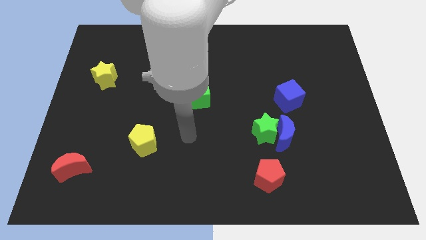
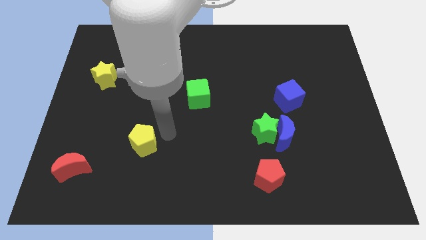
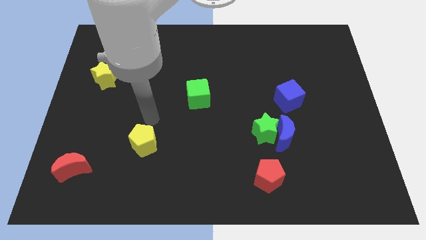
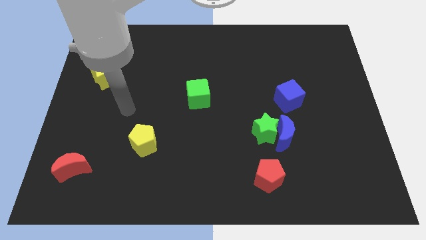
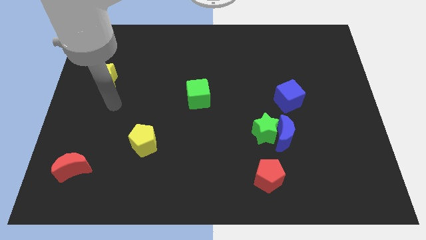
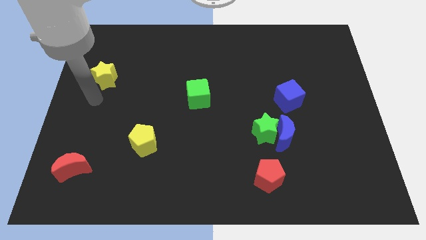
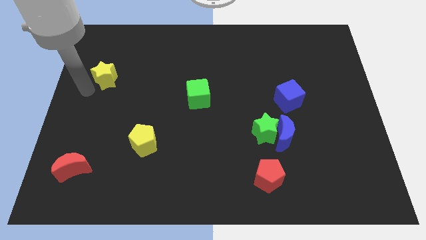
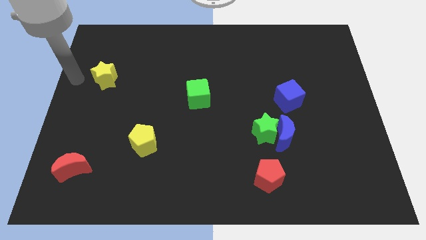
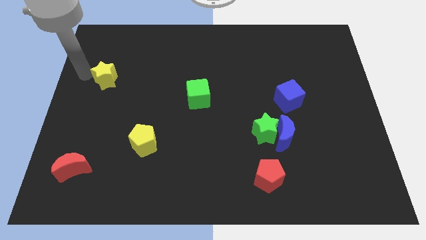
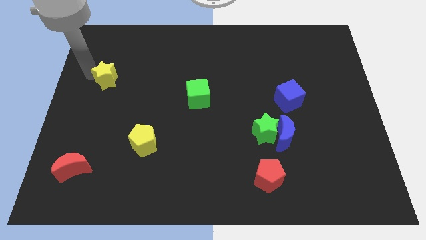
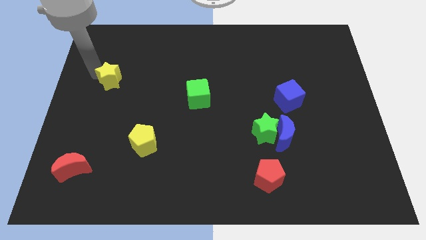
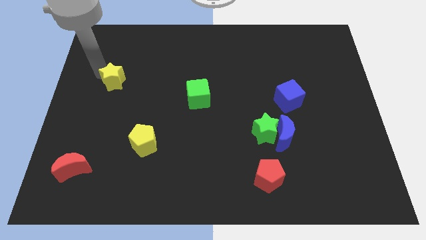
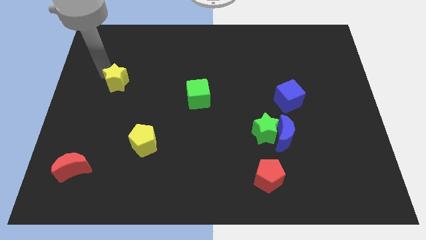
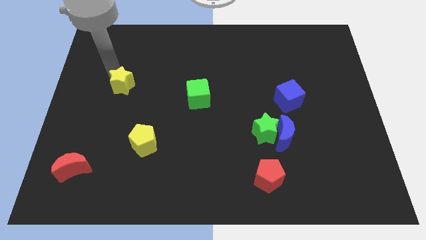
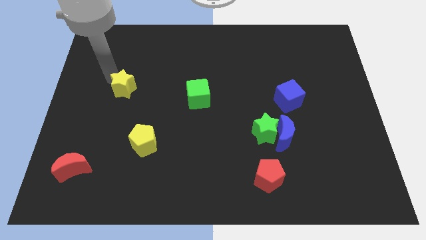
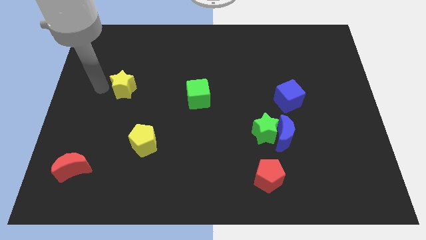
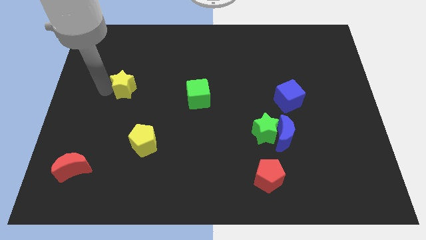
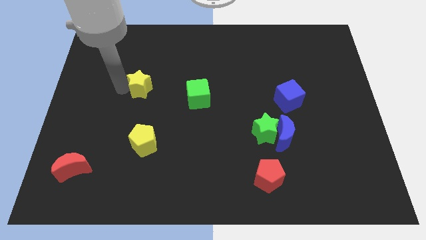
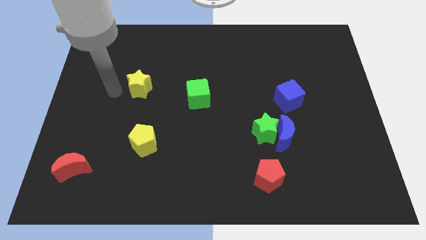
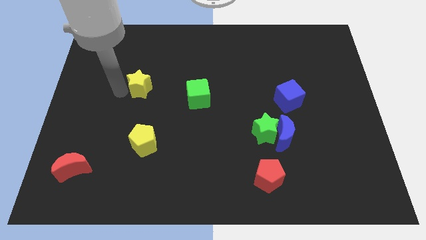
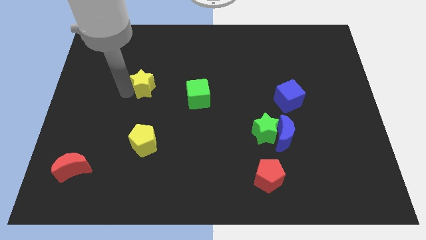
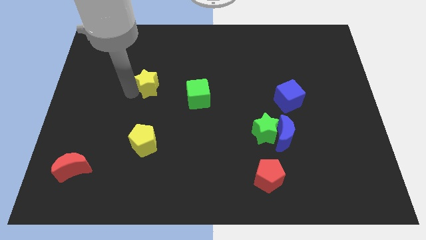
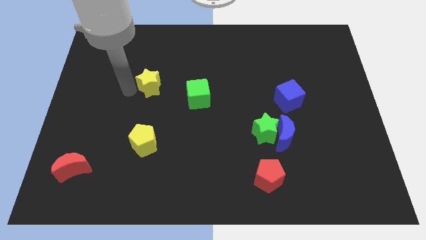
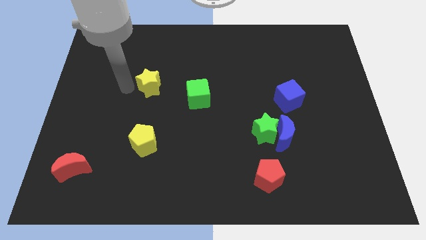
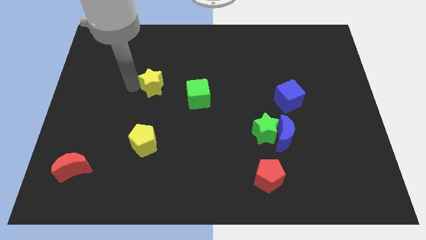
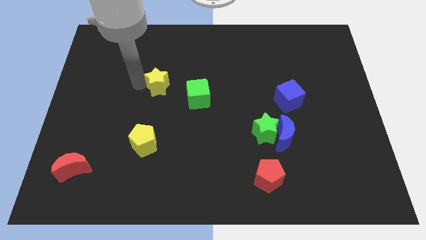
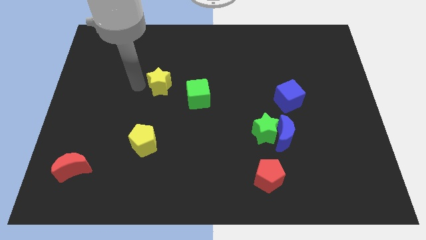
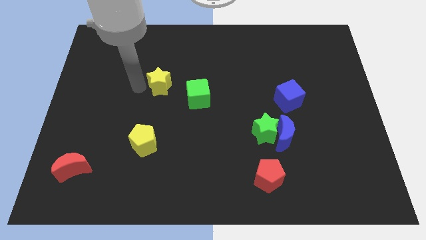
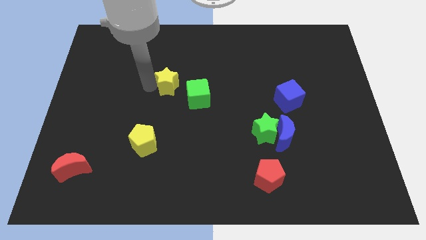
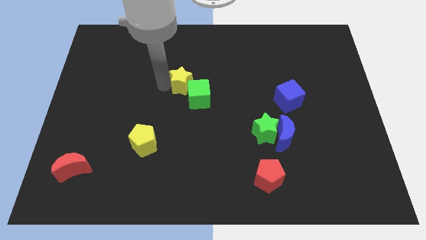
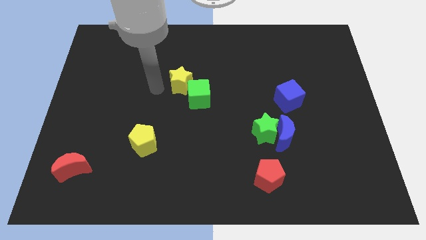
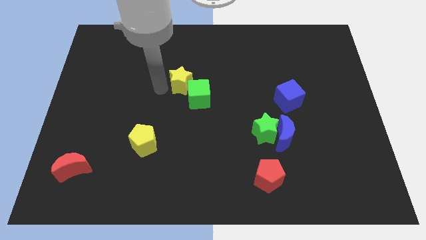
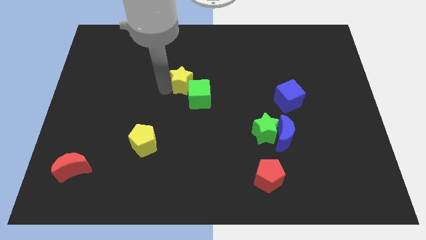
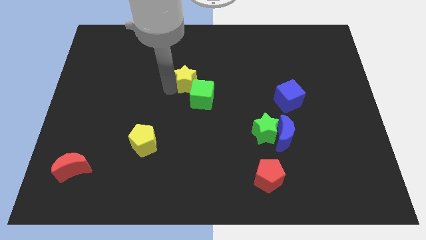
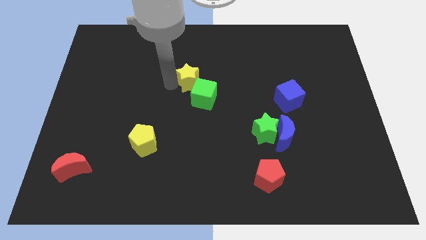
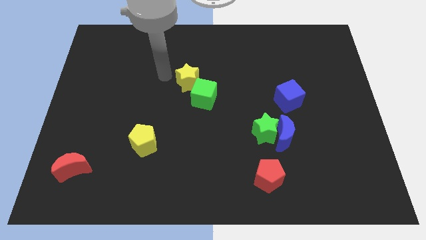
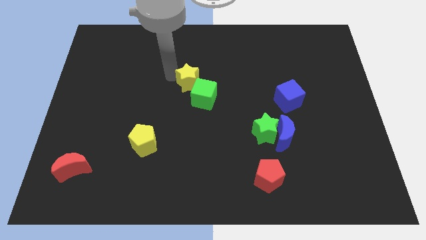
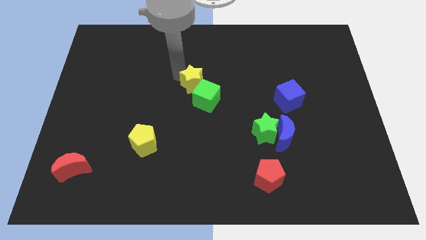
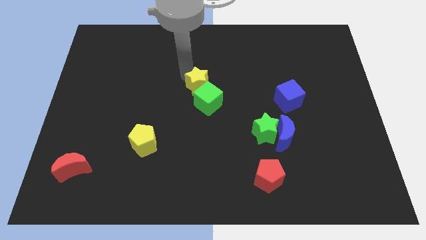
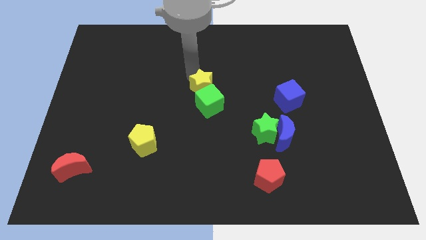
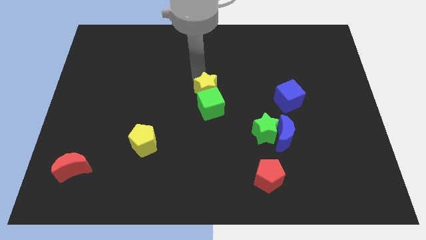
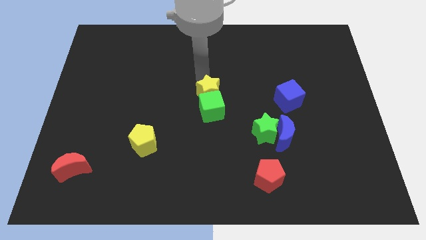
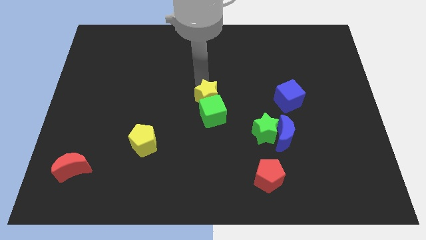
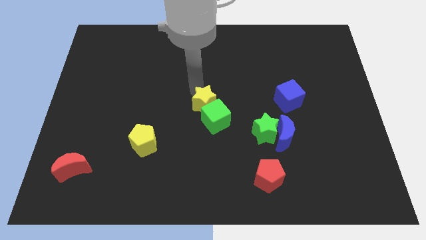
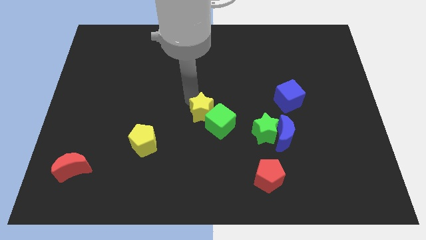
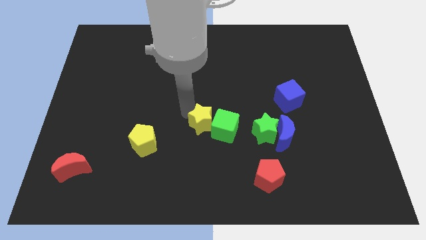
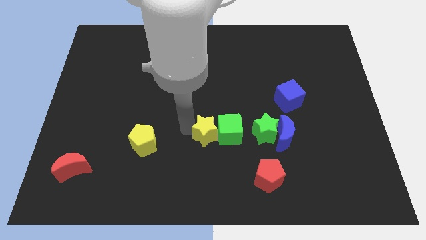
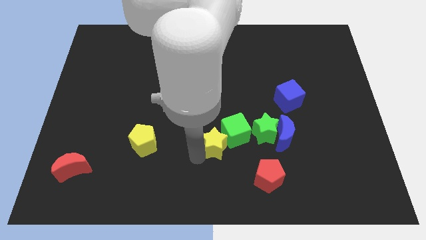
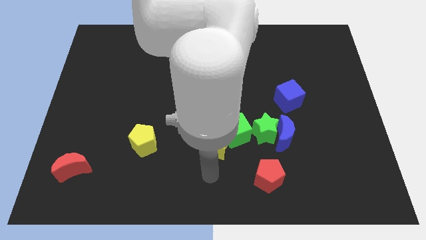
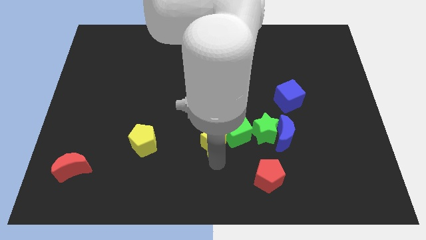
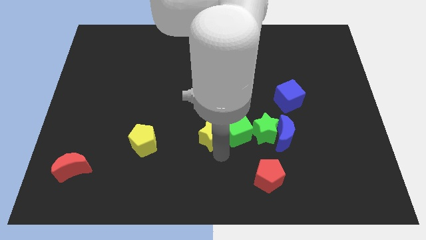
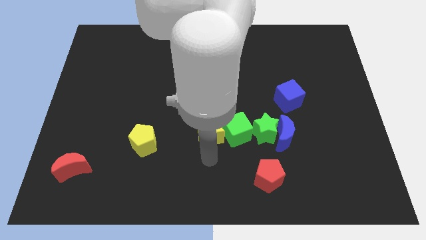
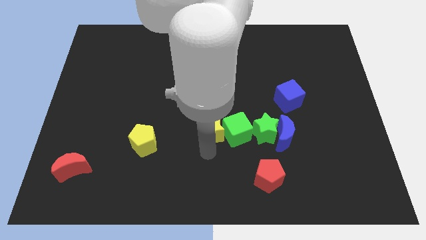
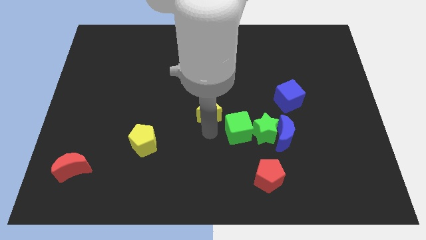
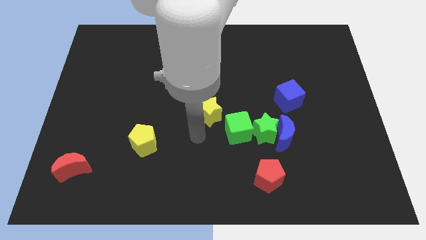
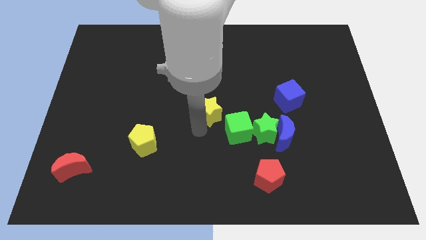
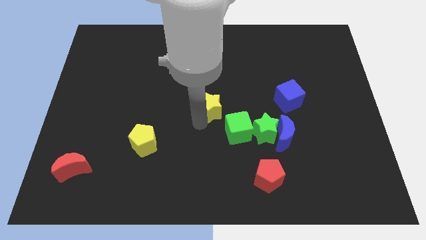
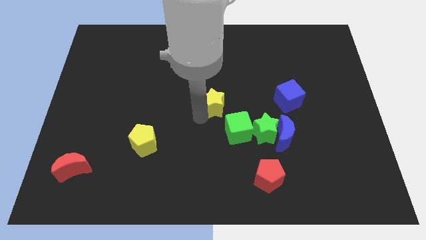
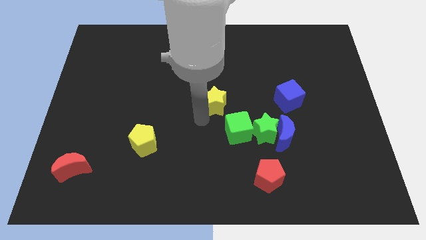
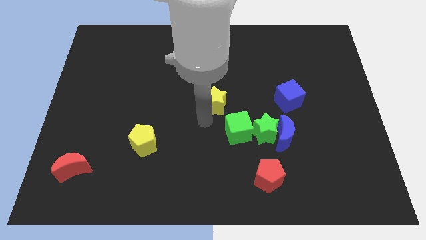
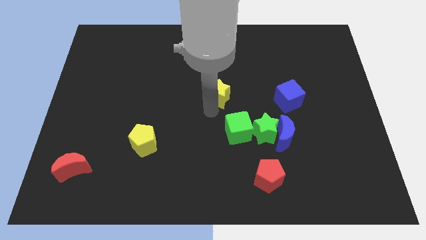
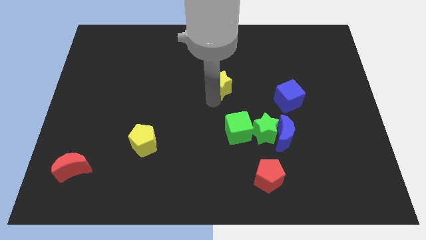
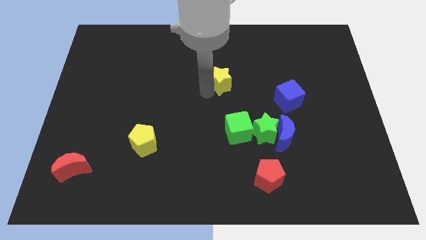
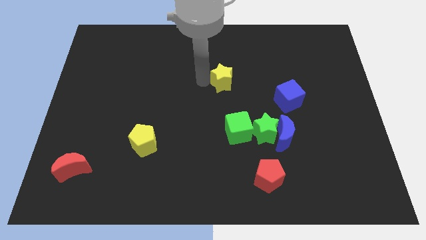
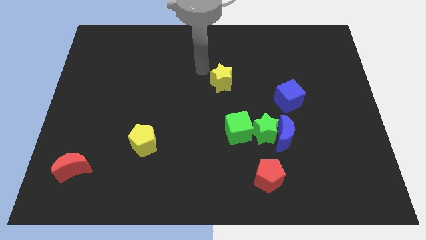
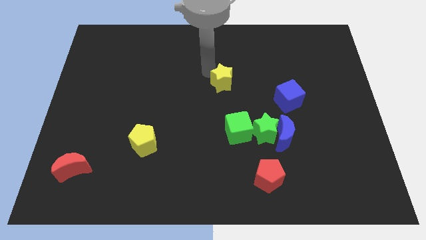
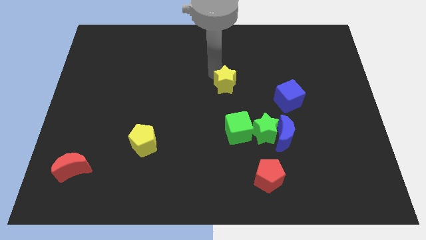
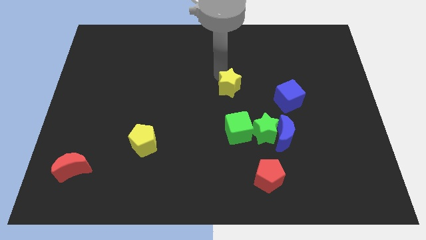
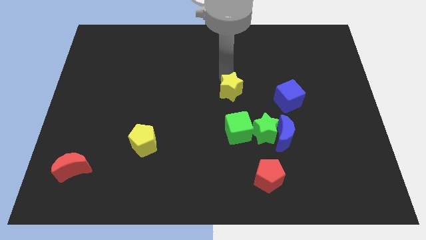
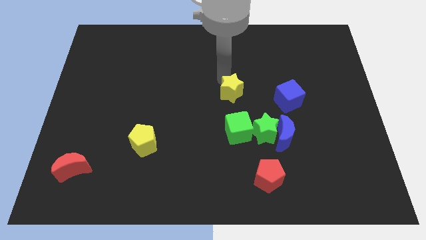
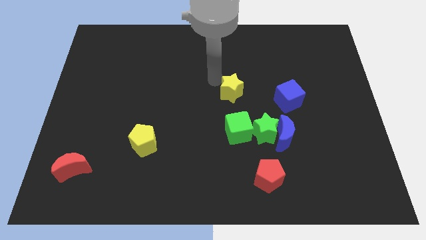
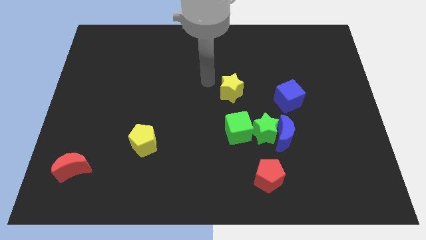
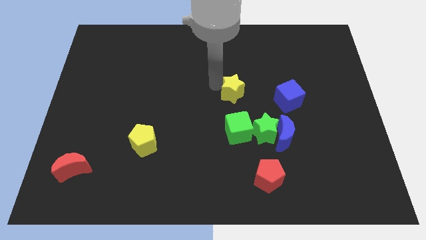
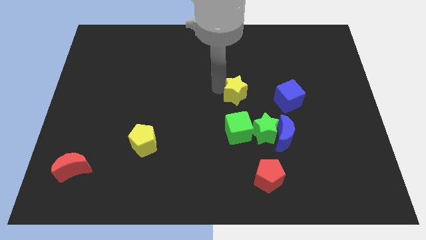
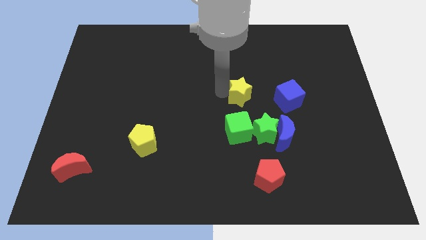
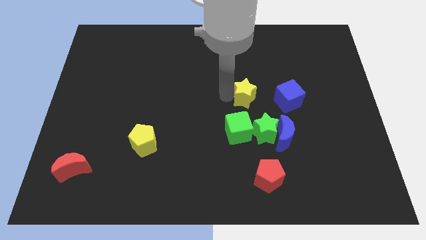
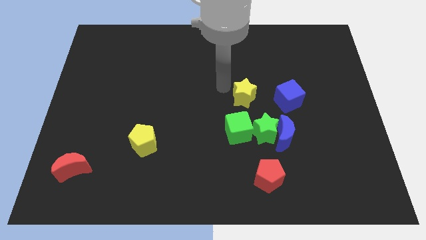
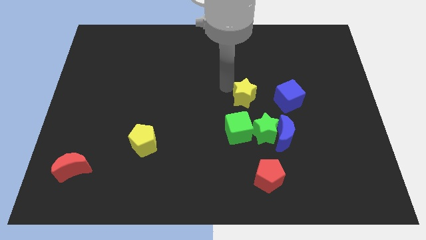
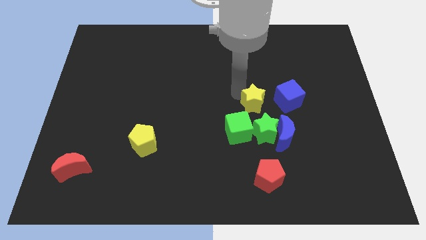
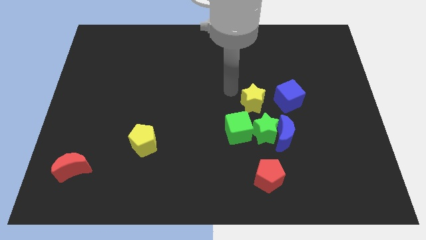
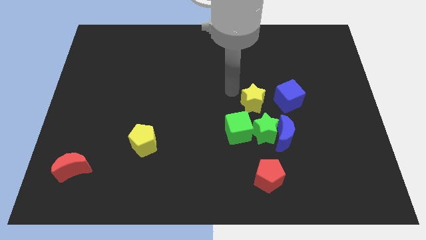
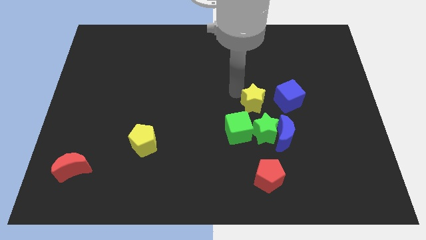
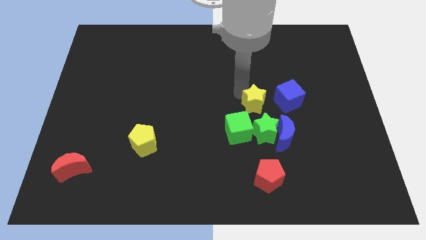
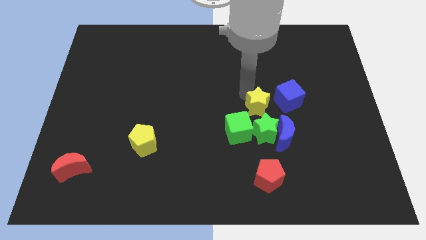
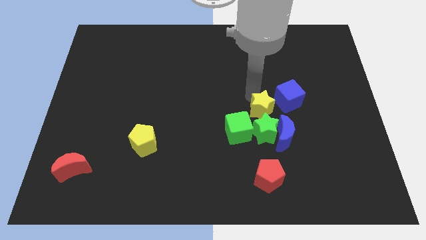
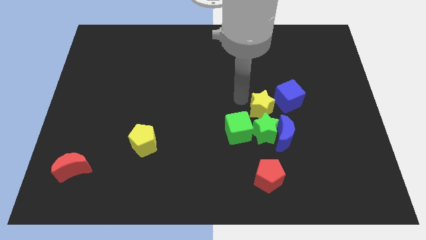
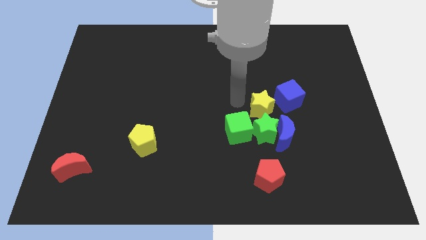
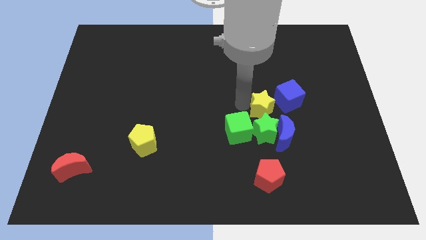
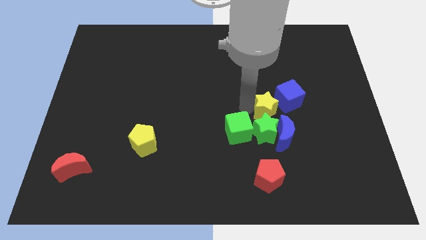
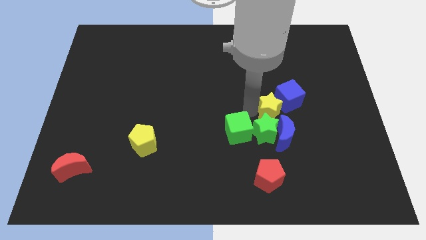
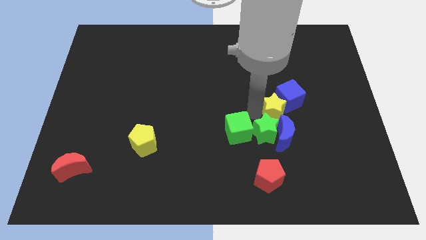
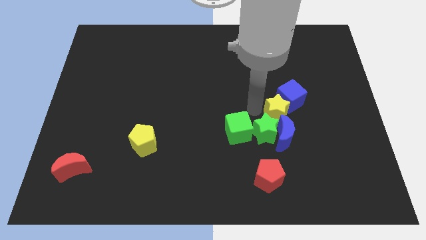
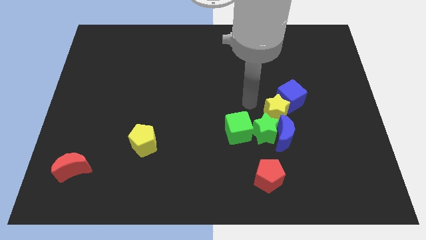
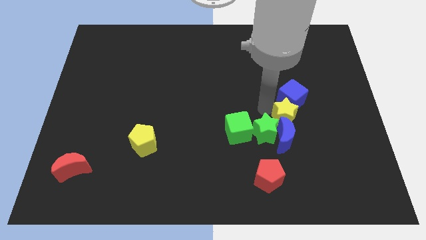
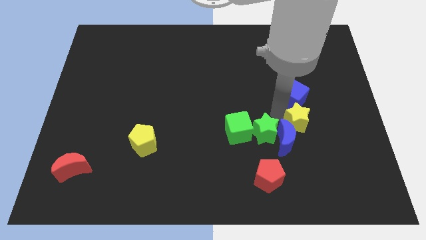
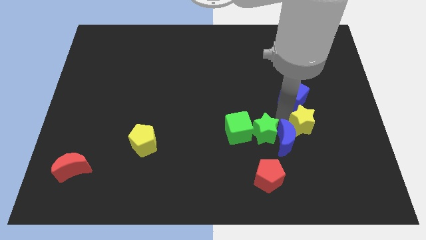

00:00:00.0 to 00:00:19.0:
put the yellow star to the right of the blue moon
